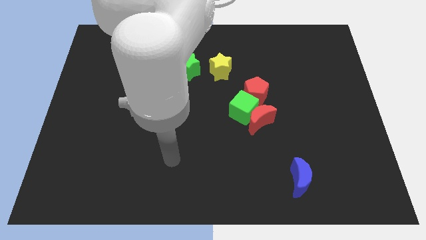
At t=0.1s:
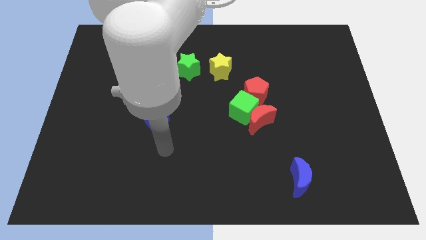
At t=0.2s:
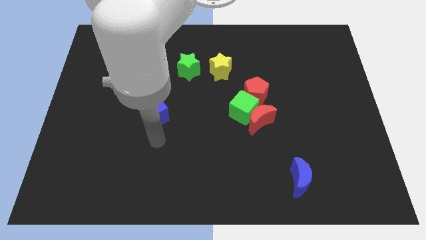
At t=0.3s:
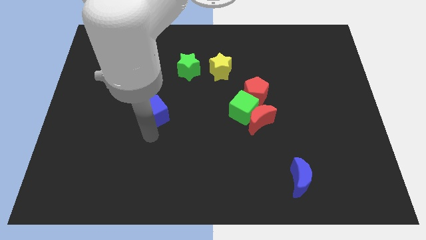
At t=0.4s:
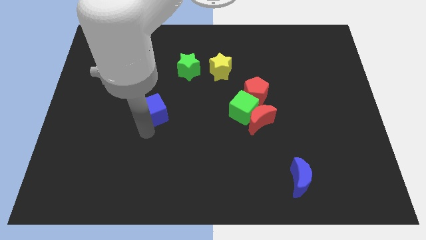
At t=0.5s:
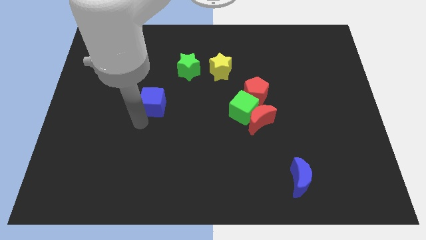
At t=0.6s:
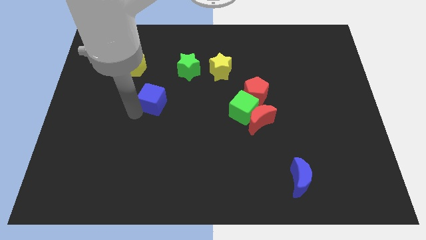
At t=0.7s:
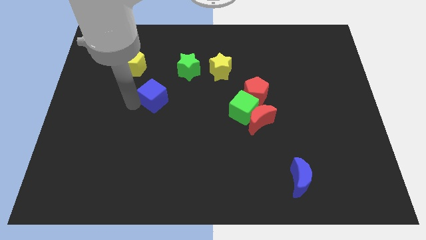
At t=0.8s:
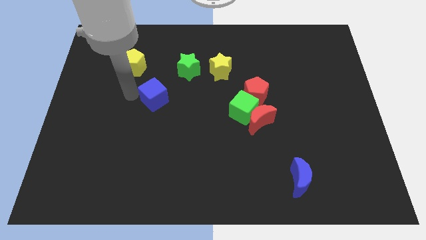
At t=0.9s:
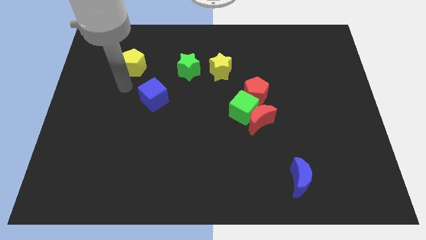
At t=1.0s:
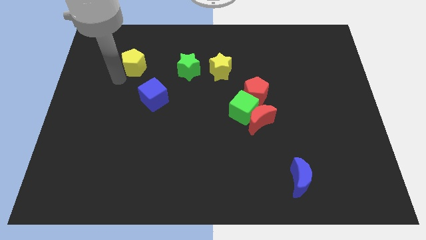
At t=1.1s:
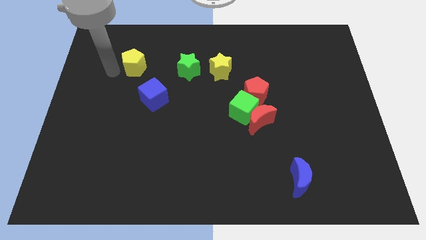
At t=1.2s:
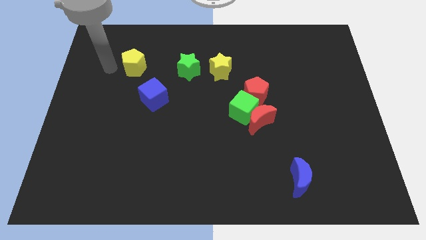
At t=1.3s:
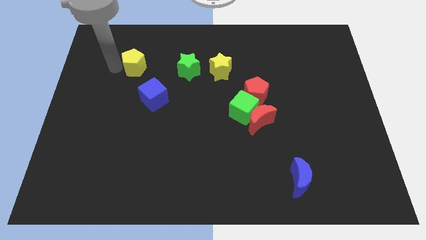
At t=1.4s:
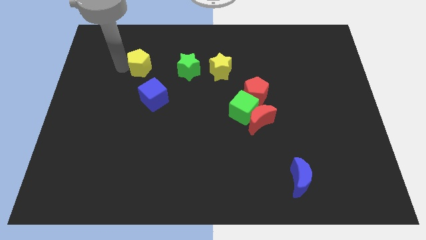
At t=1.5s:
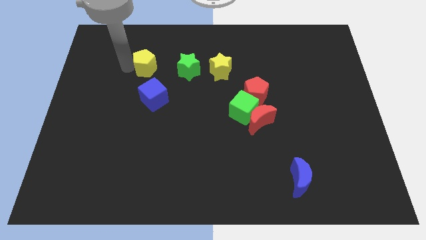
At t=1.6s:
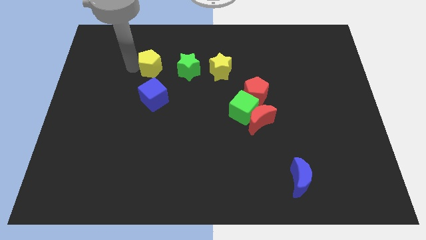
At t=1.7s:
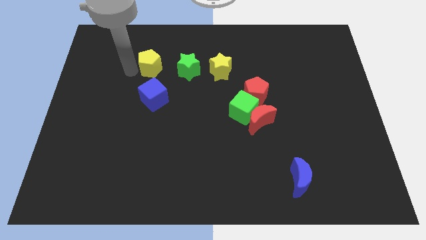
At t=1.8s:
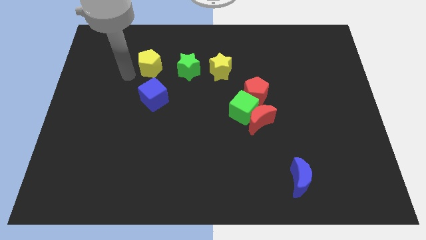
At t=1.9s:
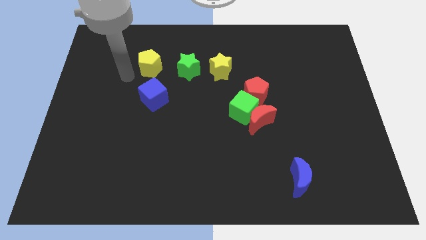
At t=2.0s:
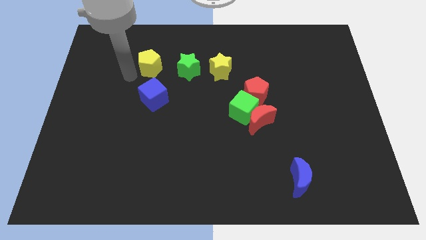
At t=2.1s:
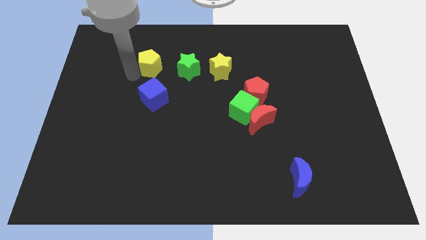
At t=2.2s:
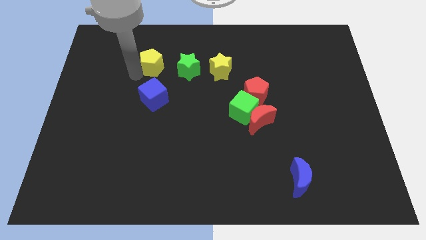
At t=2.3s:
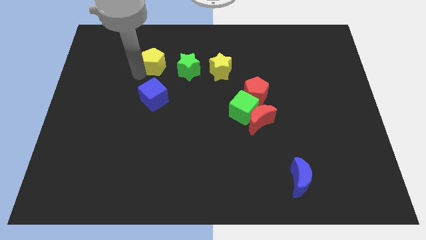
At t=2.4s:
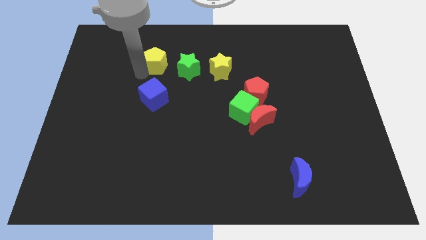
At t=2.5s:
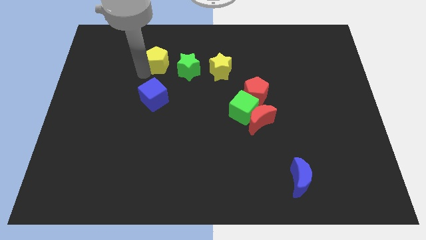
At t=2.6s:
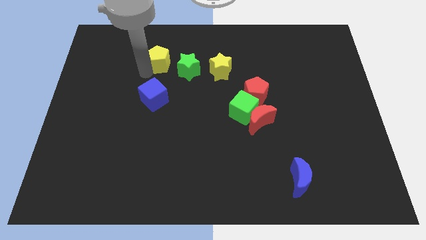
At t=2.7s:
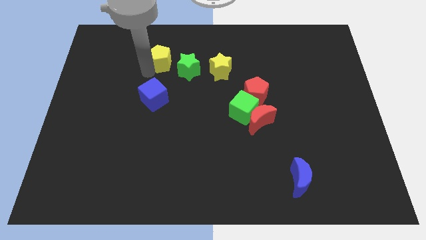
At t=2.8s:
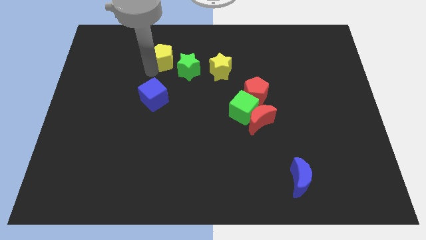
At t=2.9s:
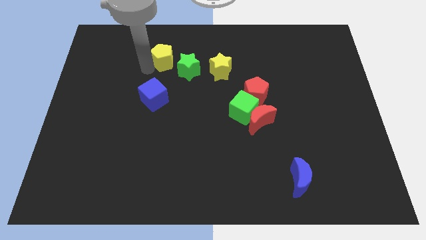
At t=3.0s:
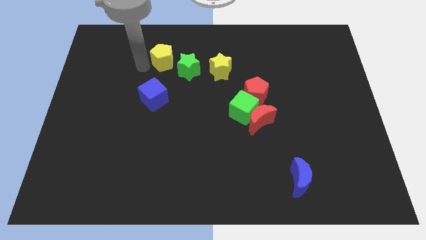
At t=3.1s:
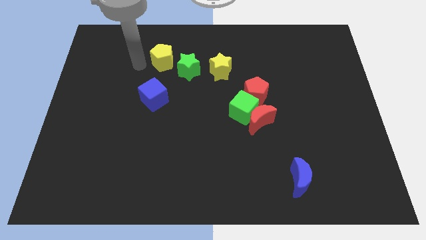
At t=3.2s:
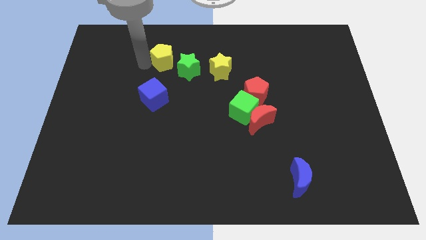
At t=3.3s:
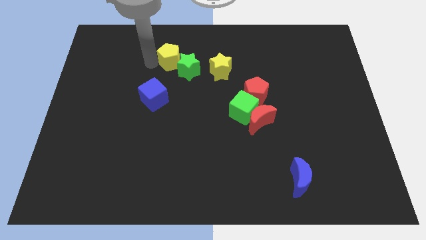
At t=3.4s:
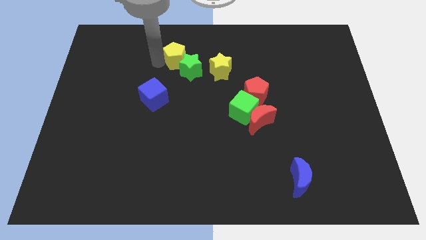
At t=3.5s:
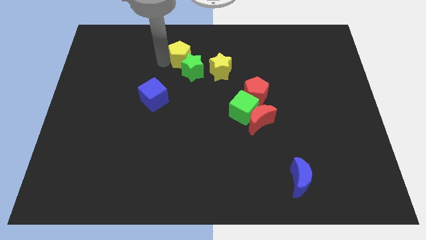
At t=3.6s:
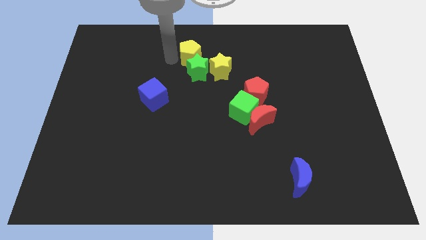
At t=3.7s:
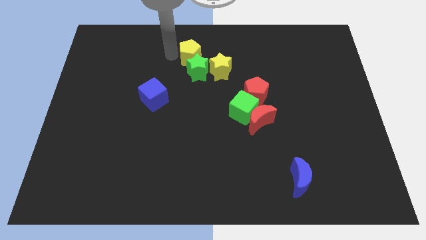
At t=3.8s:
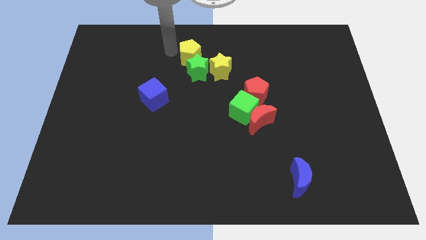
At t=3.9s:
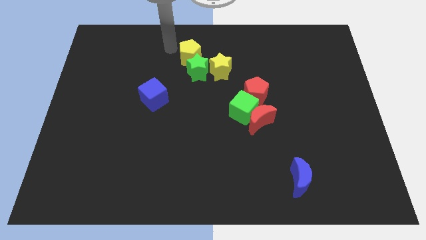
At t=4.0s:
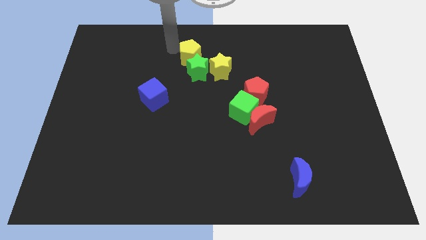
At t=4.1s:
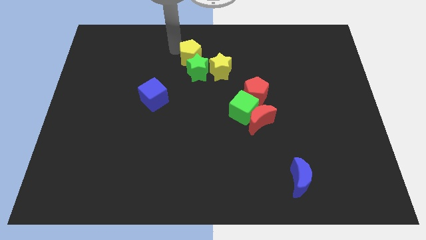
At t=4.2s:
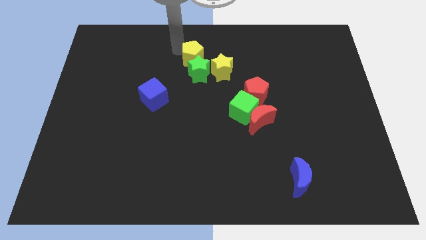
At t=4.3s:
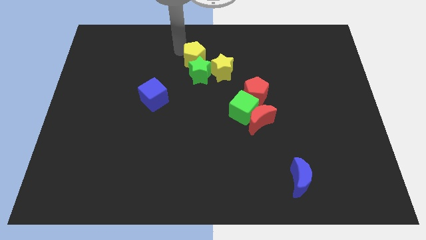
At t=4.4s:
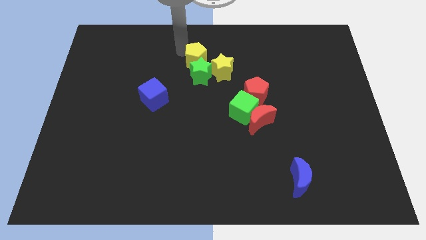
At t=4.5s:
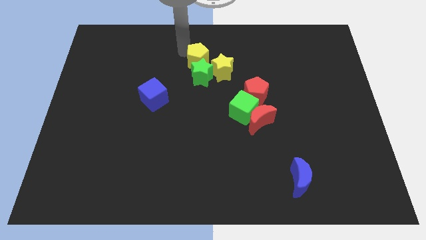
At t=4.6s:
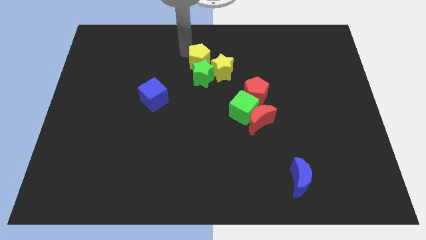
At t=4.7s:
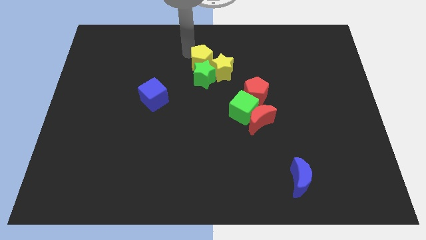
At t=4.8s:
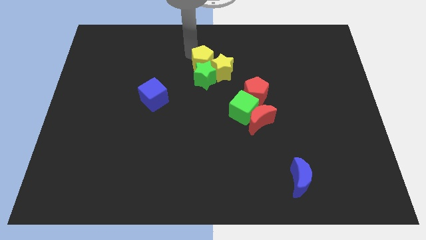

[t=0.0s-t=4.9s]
move the yellow pentagon to the yellow star

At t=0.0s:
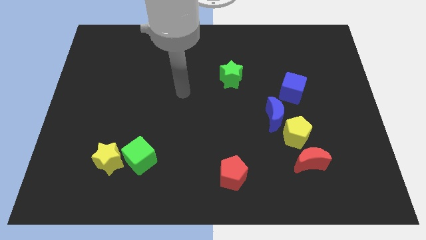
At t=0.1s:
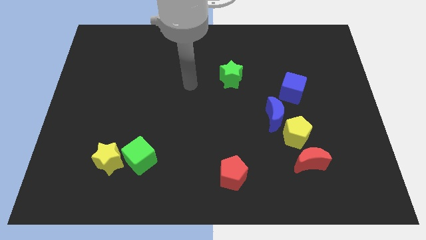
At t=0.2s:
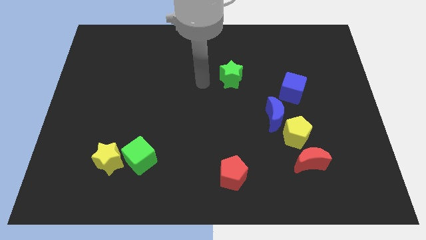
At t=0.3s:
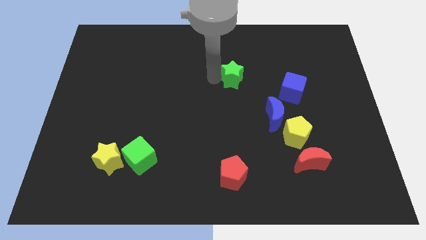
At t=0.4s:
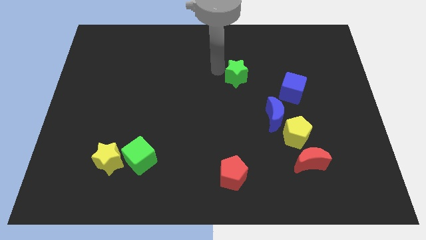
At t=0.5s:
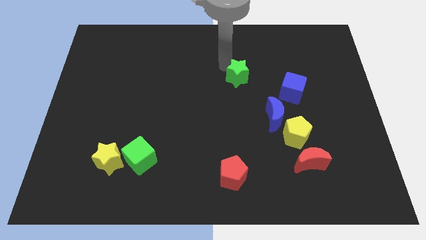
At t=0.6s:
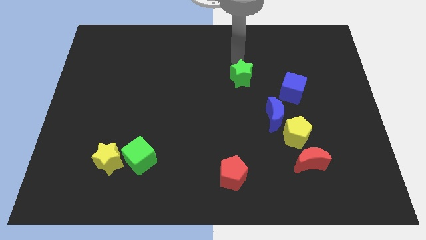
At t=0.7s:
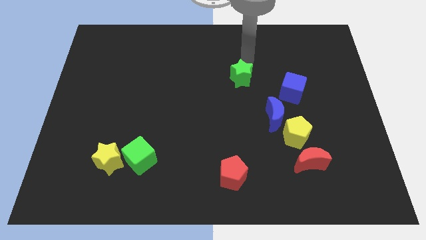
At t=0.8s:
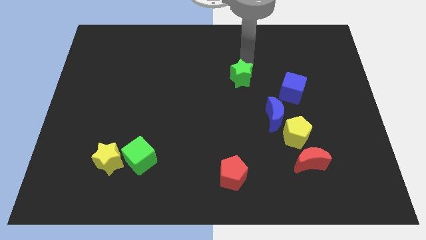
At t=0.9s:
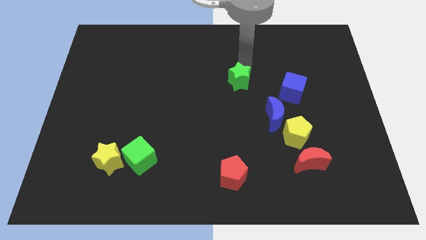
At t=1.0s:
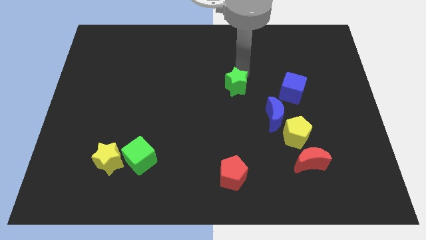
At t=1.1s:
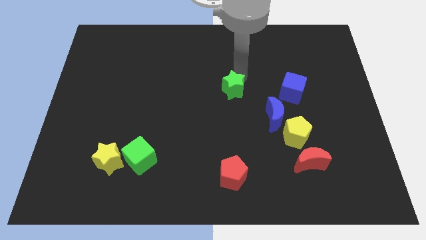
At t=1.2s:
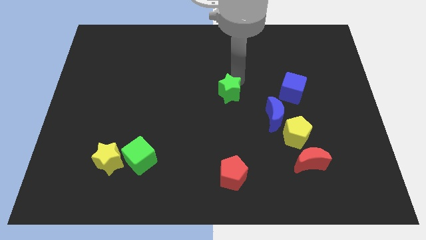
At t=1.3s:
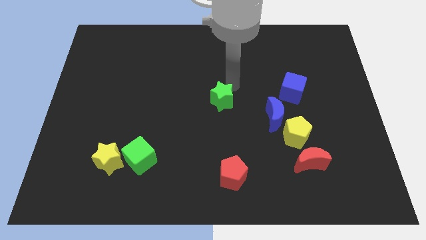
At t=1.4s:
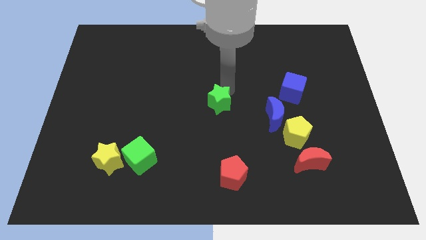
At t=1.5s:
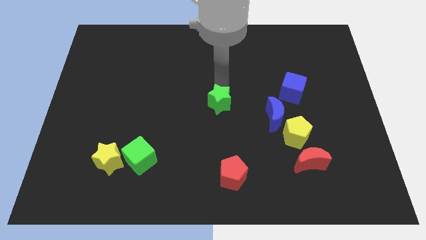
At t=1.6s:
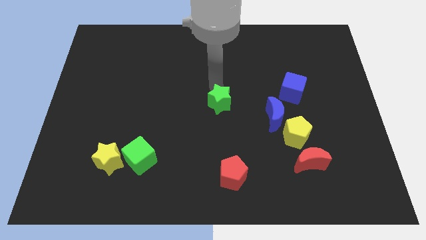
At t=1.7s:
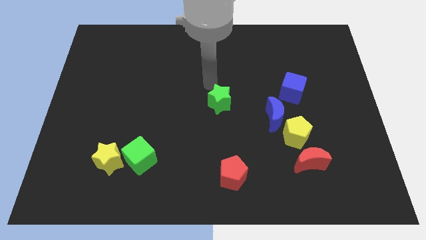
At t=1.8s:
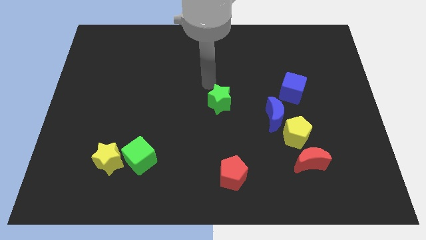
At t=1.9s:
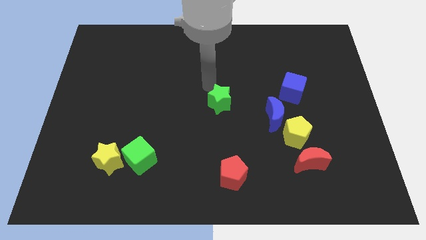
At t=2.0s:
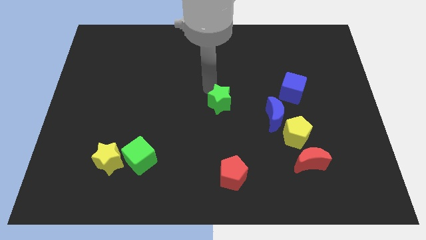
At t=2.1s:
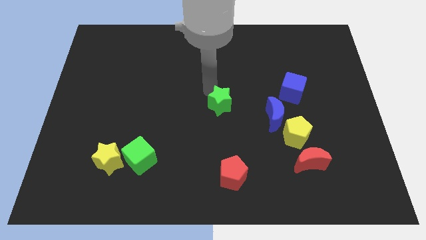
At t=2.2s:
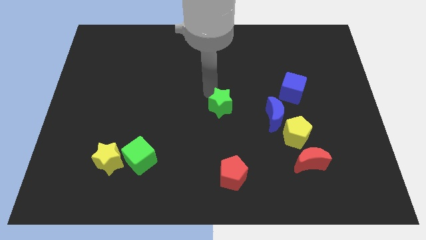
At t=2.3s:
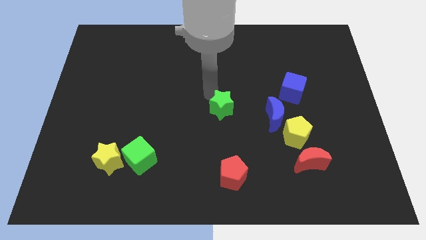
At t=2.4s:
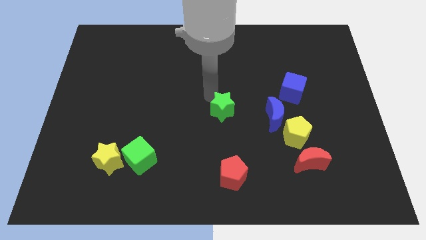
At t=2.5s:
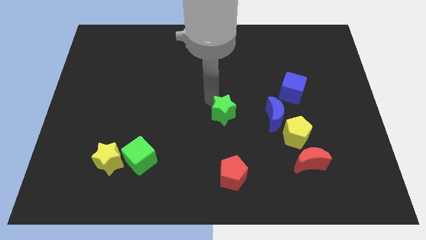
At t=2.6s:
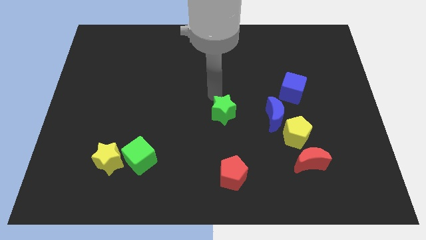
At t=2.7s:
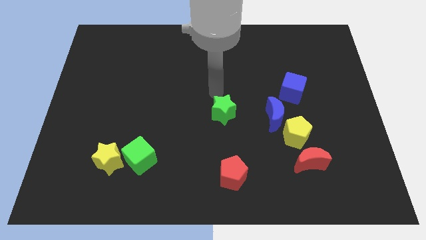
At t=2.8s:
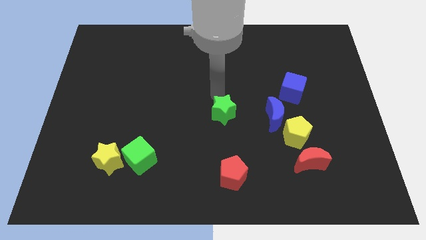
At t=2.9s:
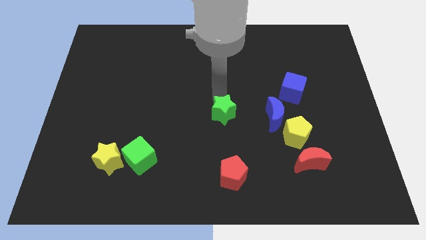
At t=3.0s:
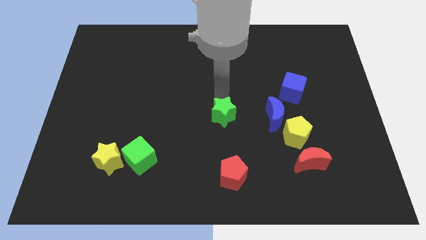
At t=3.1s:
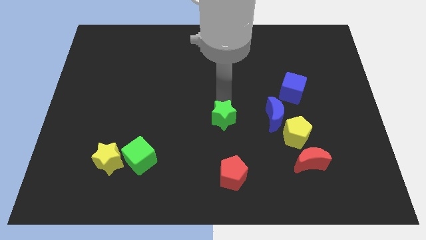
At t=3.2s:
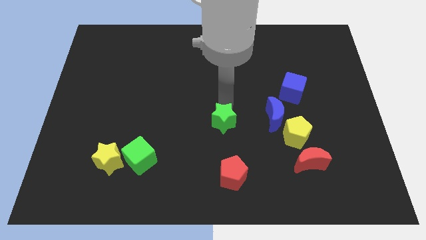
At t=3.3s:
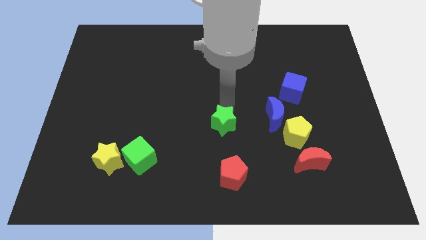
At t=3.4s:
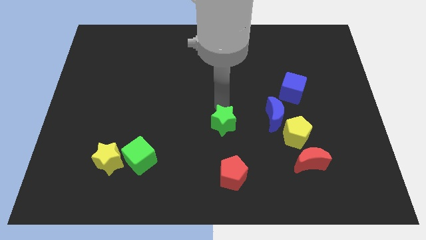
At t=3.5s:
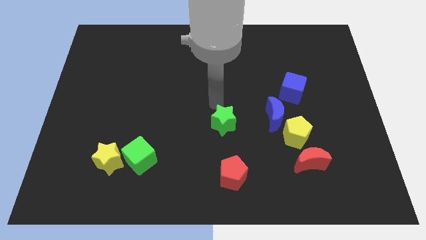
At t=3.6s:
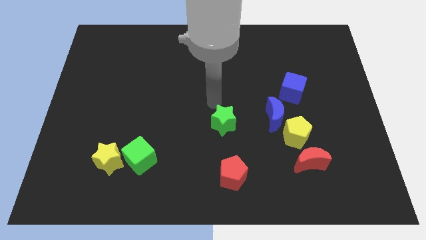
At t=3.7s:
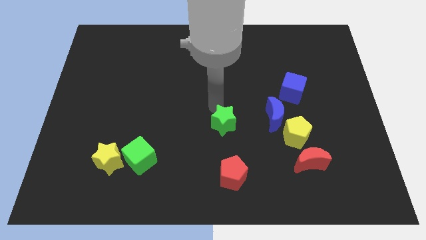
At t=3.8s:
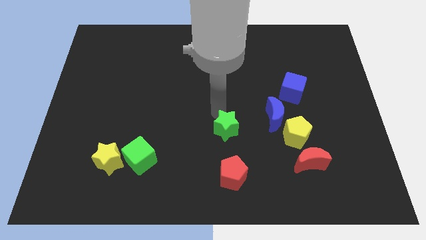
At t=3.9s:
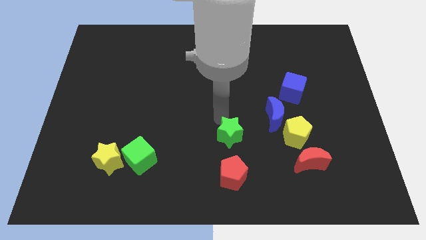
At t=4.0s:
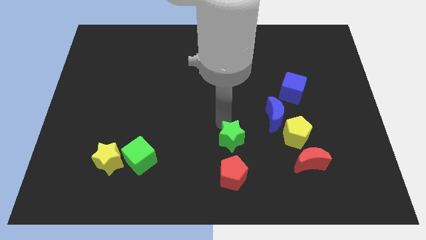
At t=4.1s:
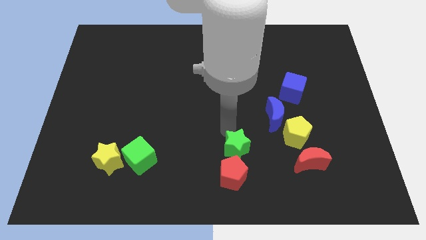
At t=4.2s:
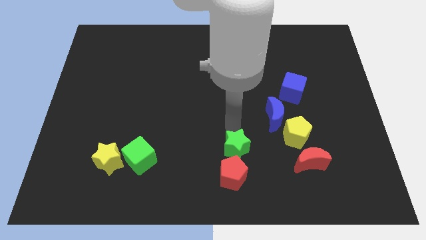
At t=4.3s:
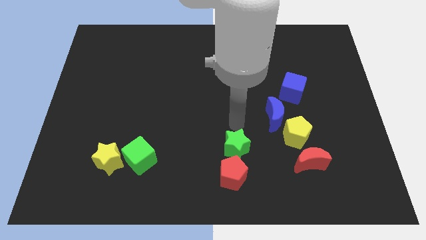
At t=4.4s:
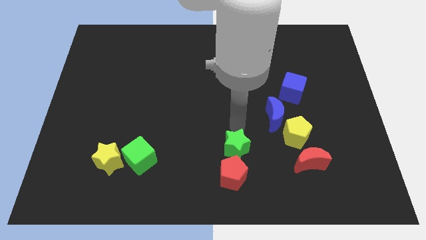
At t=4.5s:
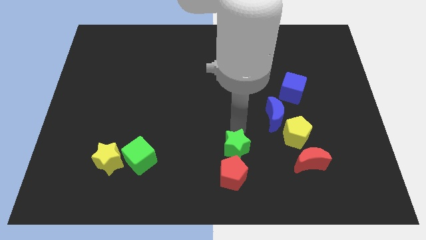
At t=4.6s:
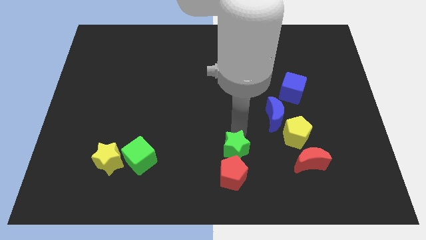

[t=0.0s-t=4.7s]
slide the green star close to the red pentagon
